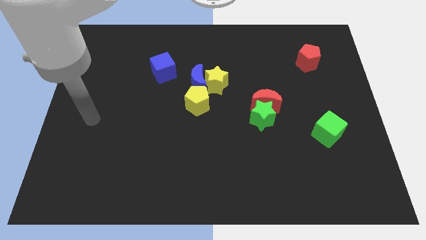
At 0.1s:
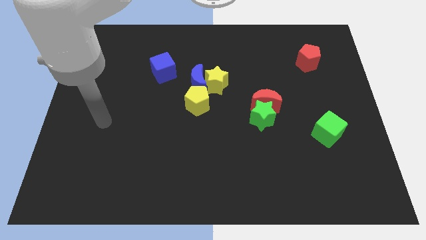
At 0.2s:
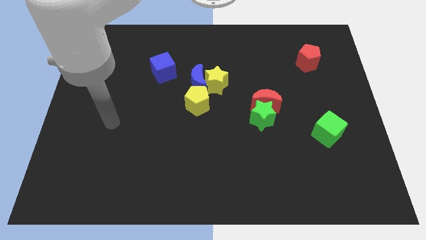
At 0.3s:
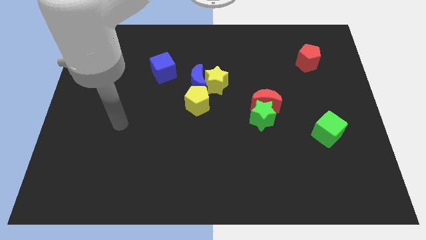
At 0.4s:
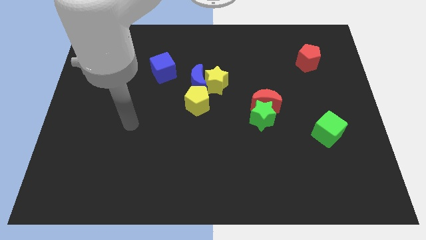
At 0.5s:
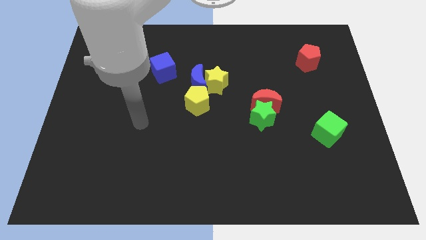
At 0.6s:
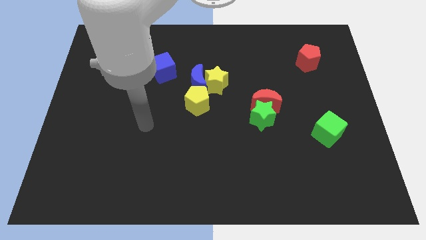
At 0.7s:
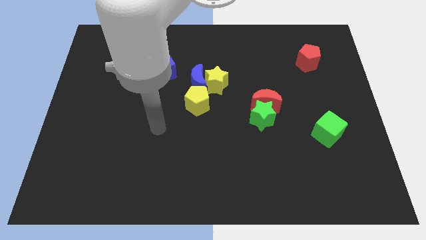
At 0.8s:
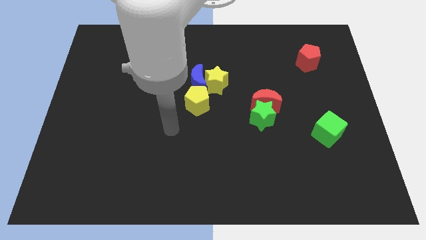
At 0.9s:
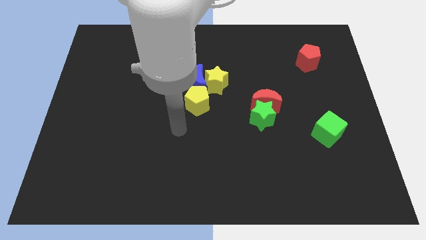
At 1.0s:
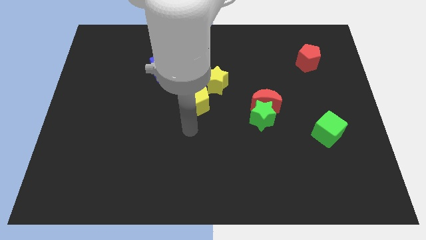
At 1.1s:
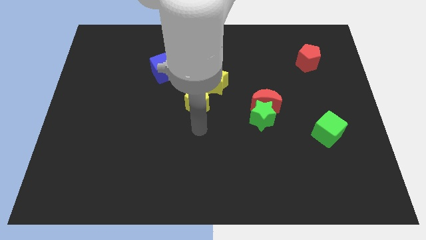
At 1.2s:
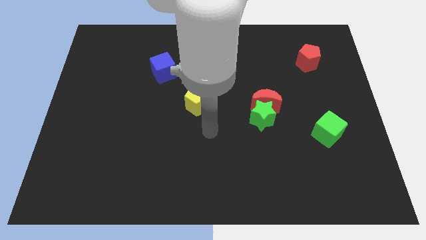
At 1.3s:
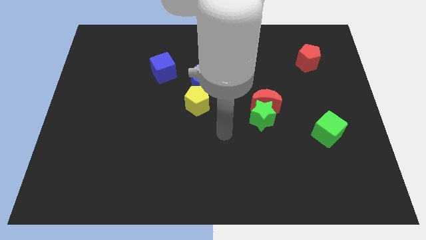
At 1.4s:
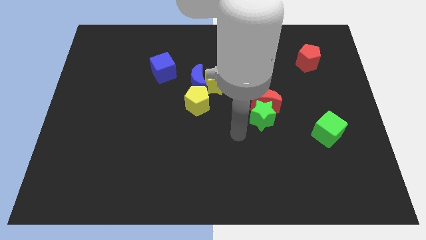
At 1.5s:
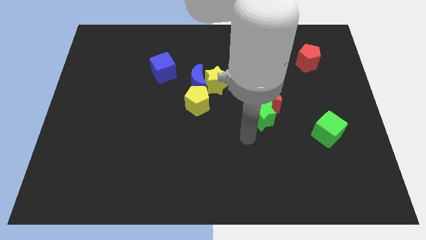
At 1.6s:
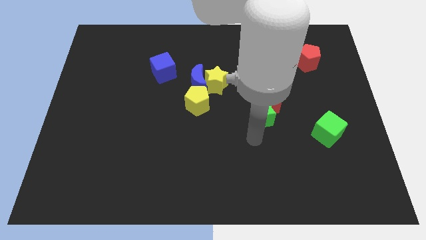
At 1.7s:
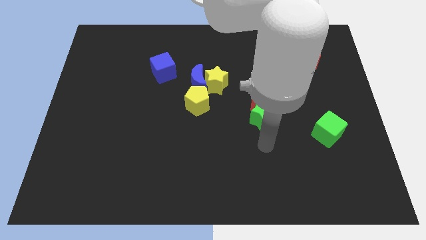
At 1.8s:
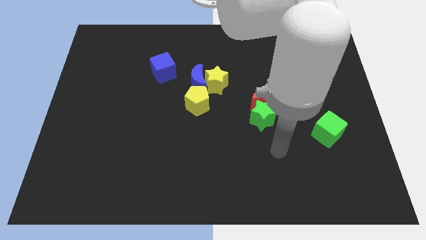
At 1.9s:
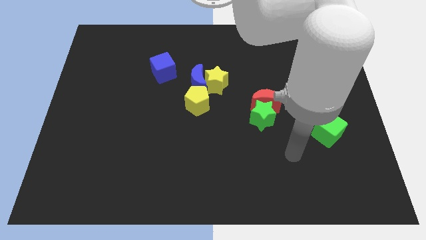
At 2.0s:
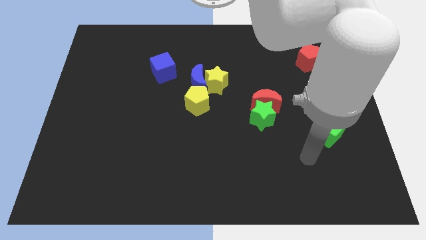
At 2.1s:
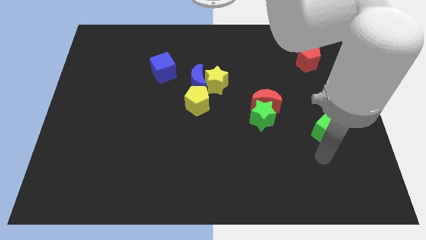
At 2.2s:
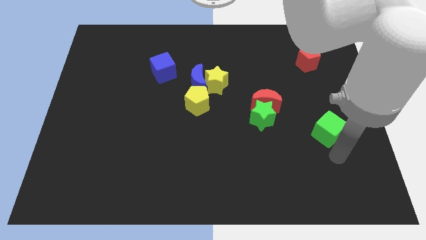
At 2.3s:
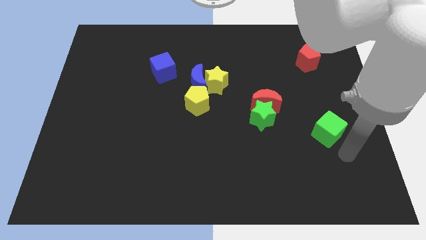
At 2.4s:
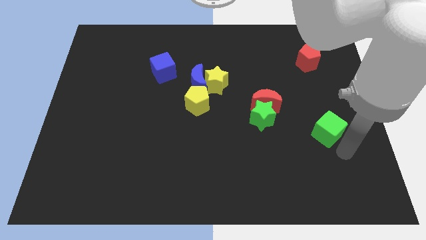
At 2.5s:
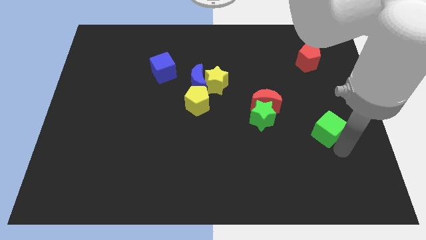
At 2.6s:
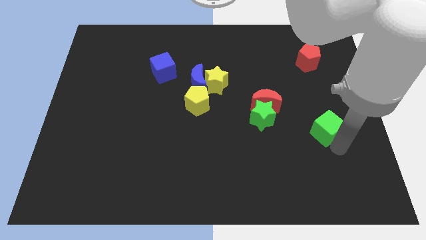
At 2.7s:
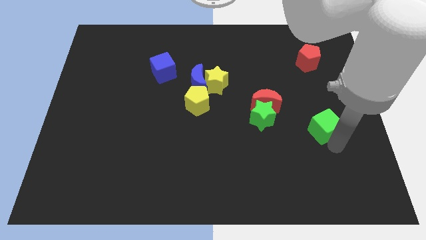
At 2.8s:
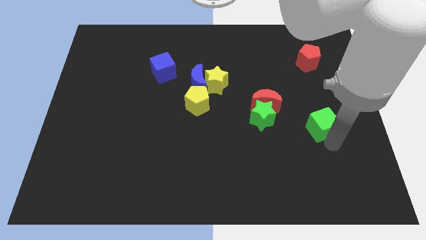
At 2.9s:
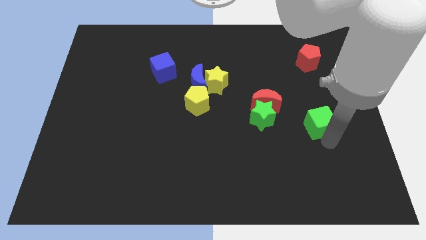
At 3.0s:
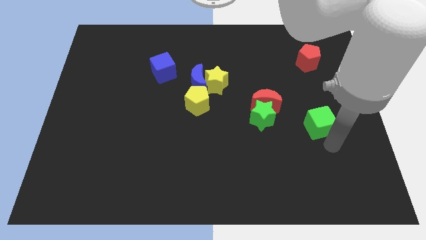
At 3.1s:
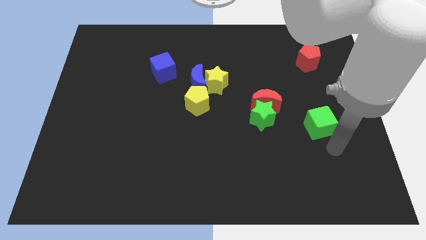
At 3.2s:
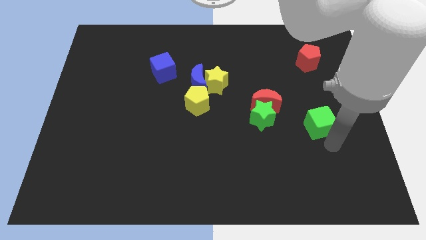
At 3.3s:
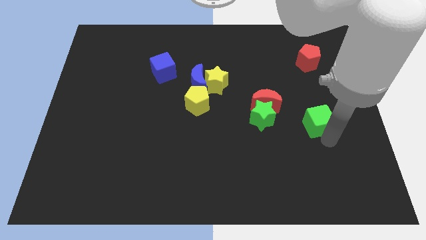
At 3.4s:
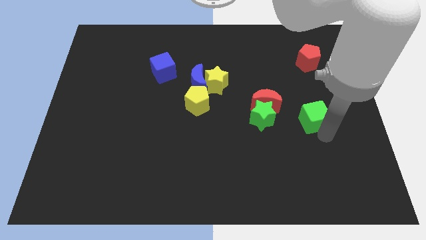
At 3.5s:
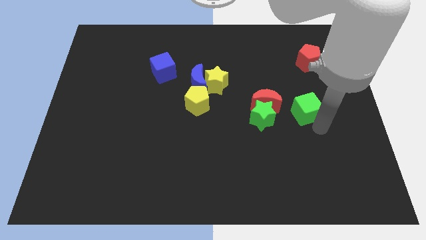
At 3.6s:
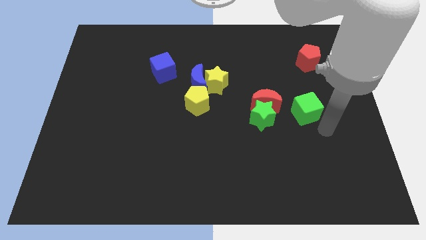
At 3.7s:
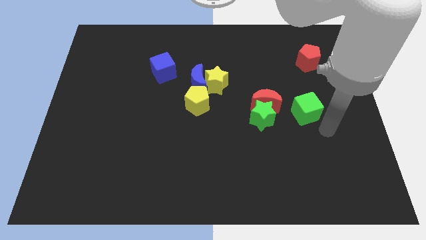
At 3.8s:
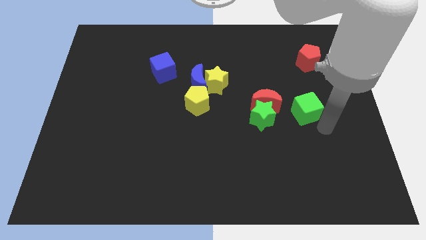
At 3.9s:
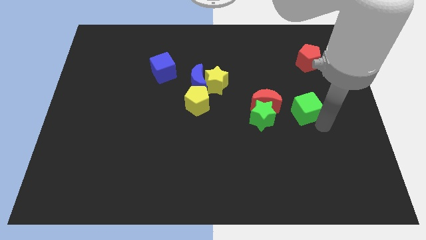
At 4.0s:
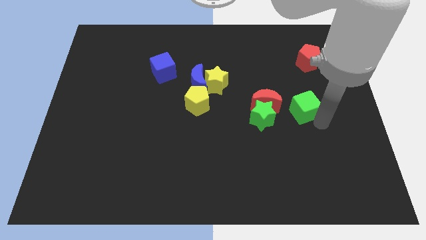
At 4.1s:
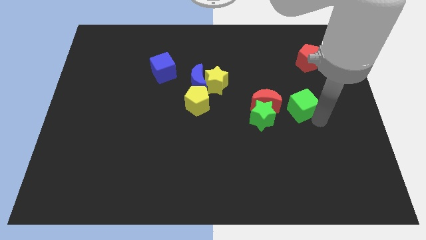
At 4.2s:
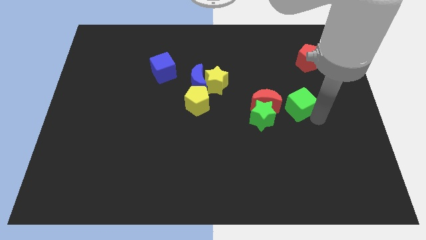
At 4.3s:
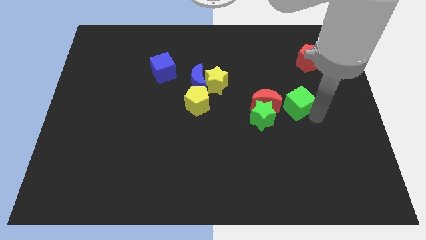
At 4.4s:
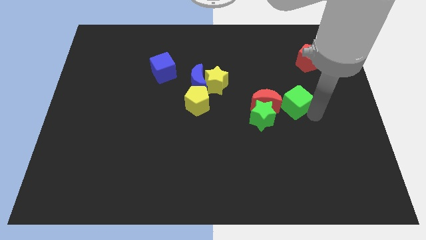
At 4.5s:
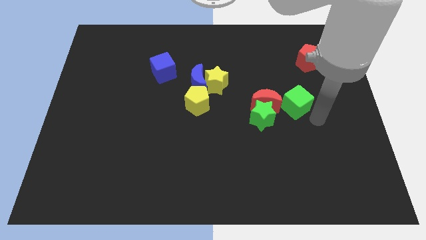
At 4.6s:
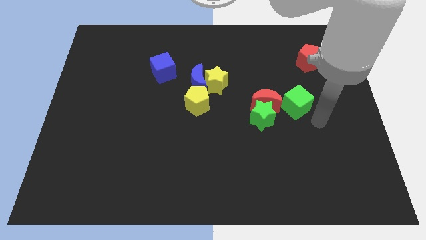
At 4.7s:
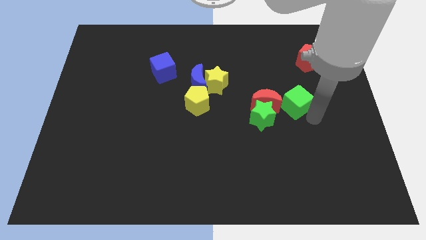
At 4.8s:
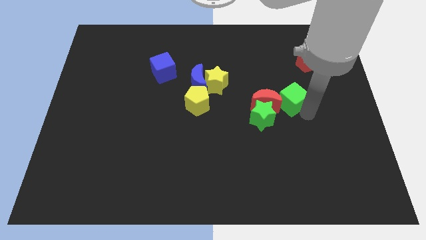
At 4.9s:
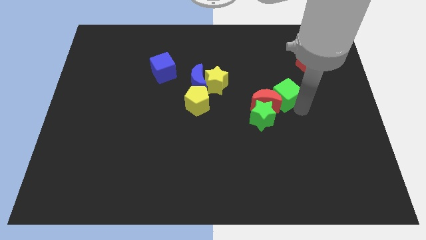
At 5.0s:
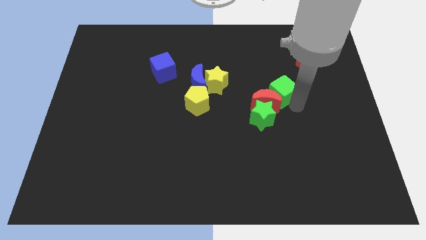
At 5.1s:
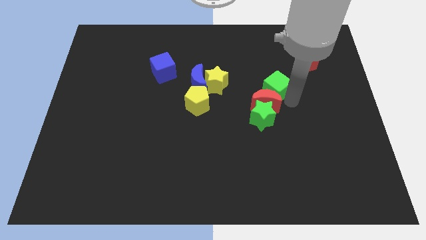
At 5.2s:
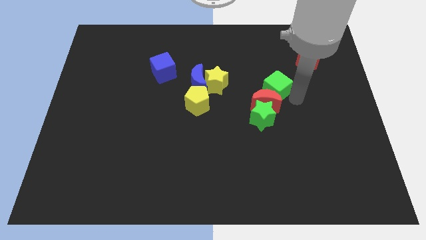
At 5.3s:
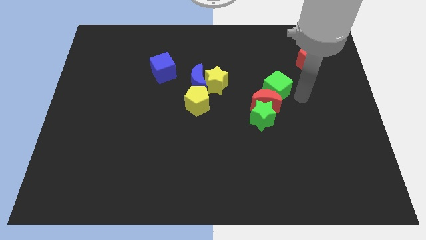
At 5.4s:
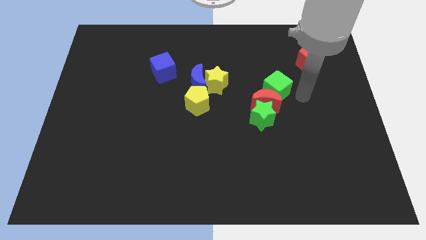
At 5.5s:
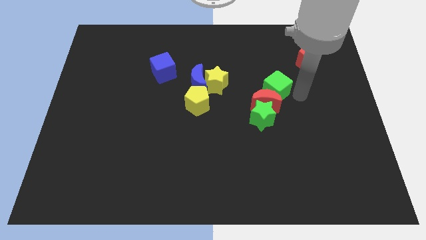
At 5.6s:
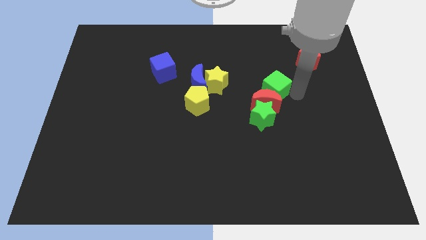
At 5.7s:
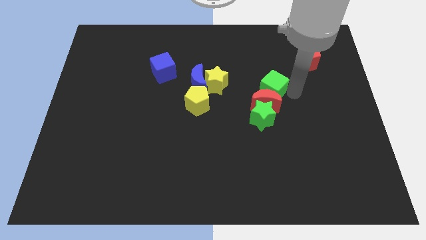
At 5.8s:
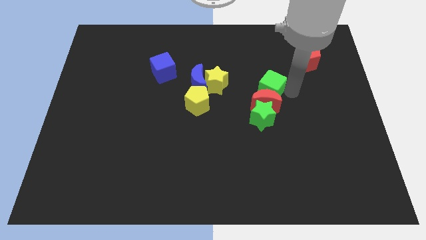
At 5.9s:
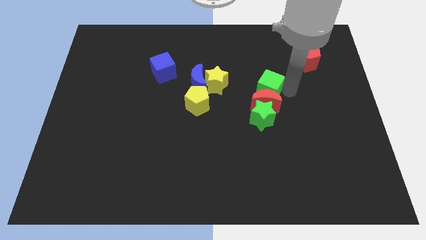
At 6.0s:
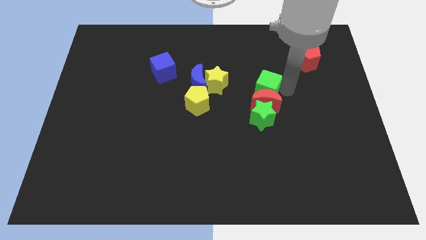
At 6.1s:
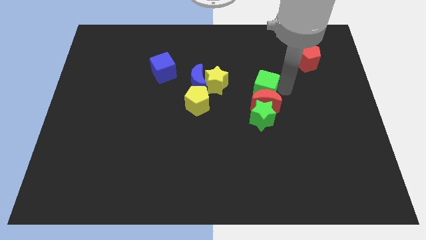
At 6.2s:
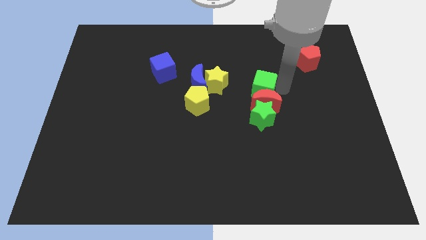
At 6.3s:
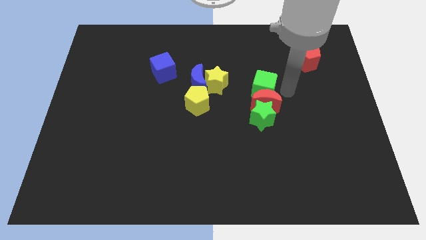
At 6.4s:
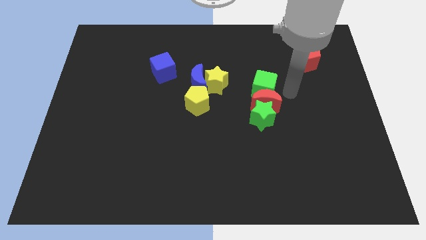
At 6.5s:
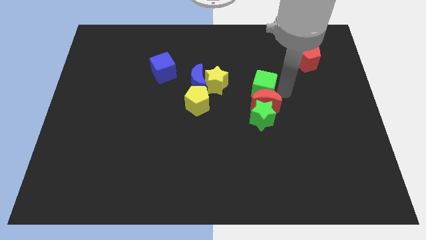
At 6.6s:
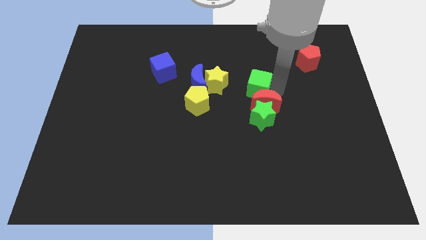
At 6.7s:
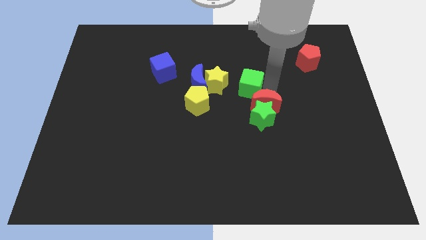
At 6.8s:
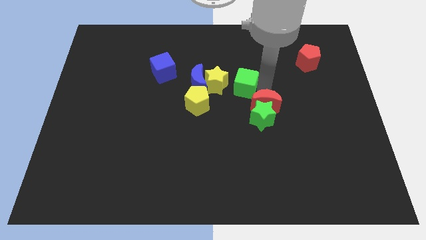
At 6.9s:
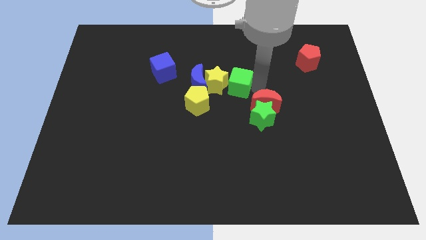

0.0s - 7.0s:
move the green cube close to the yellow star

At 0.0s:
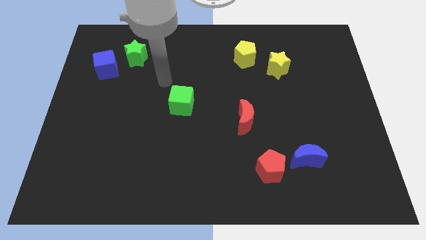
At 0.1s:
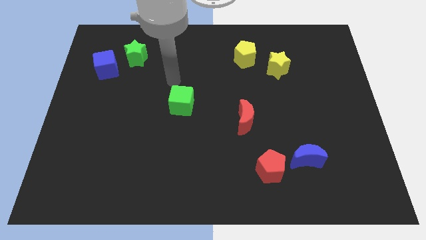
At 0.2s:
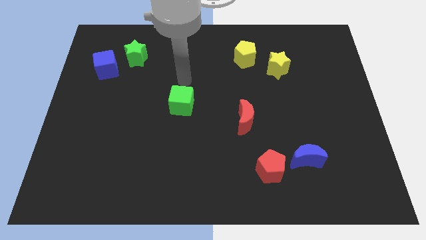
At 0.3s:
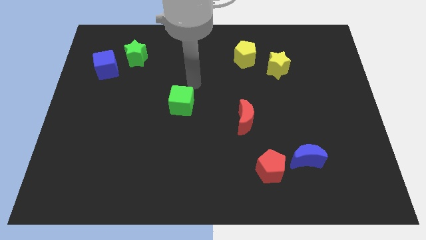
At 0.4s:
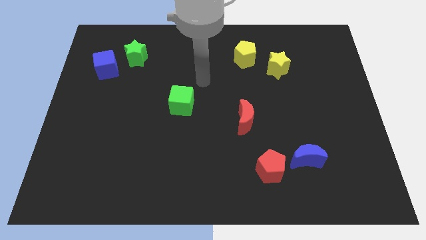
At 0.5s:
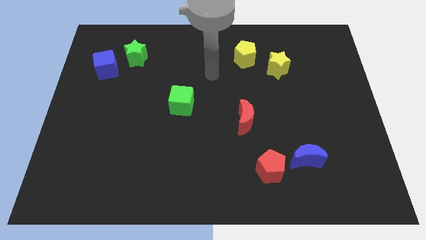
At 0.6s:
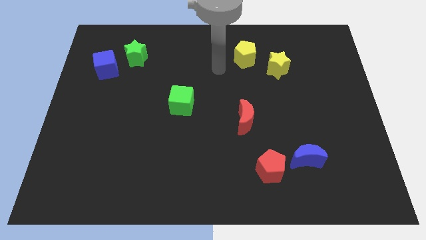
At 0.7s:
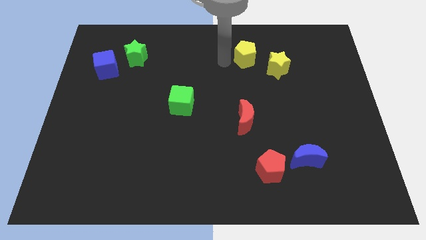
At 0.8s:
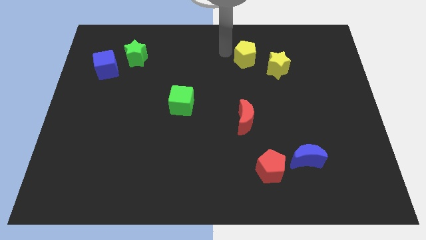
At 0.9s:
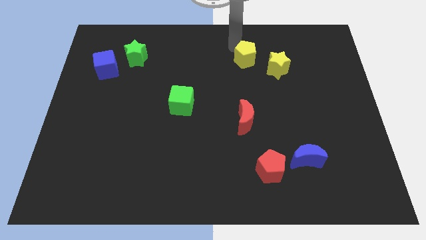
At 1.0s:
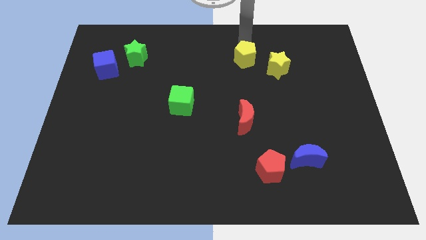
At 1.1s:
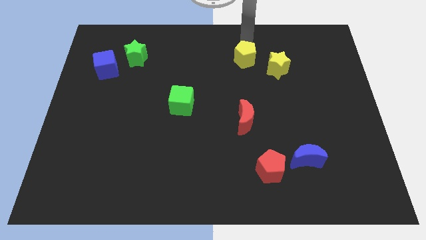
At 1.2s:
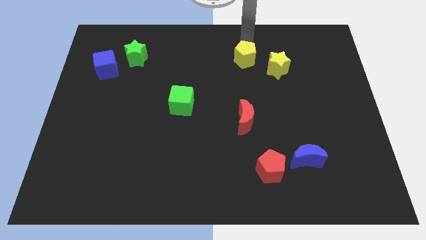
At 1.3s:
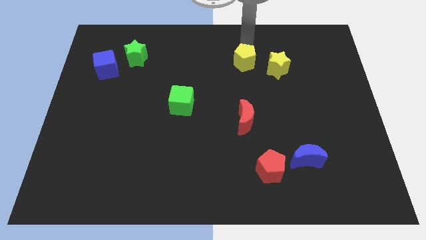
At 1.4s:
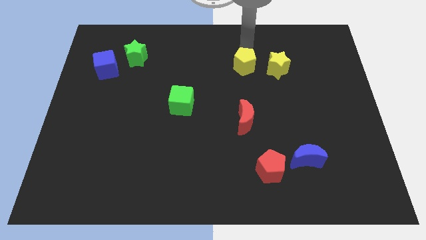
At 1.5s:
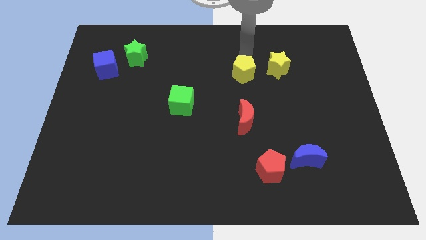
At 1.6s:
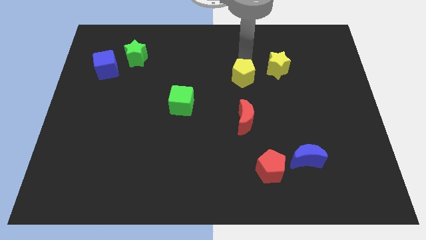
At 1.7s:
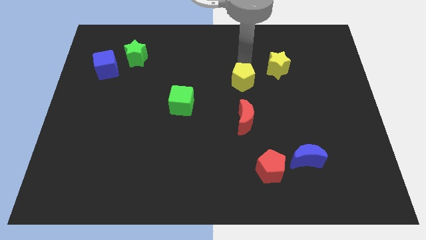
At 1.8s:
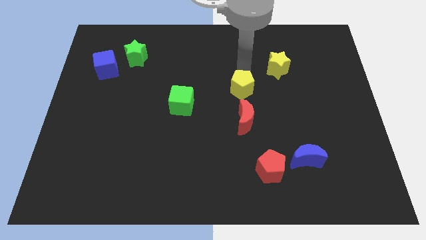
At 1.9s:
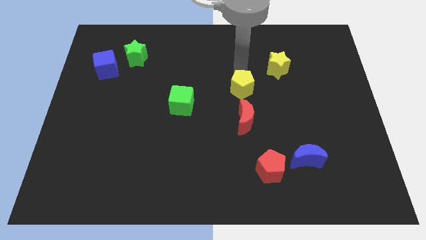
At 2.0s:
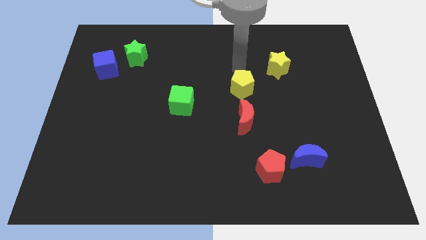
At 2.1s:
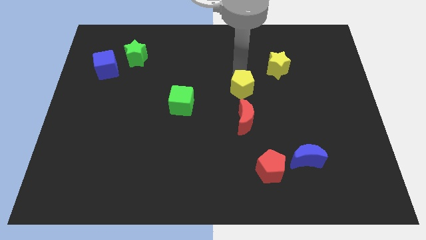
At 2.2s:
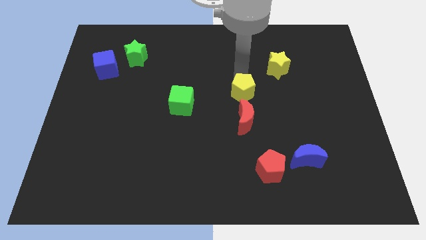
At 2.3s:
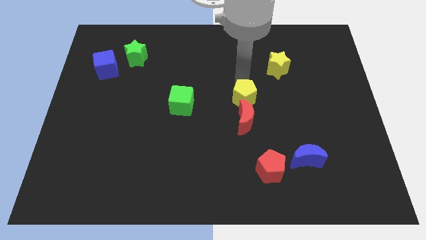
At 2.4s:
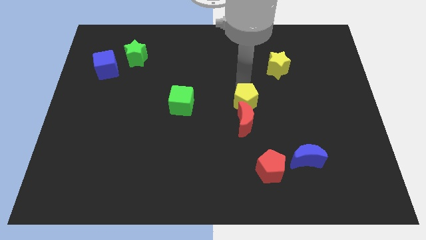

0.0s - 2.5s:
put the yellow pentagon close to the red moon
